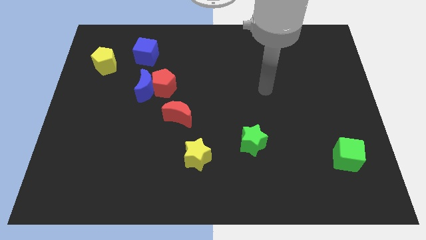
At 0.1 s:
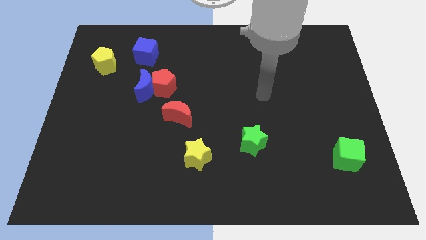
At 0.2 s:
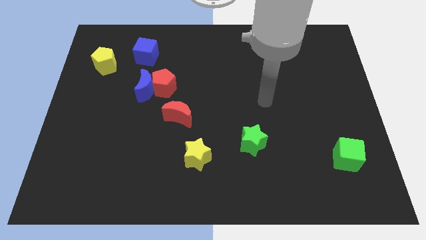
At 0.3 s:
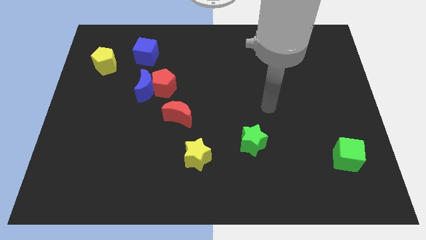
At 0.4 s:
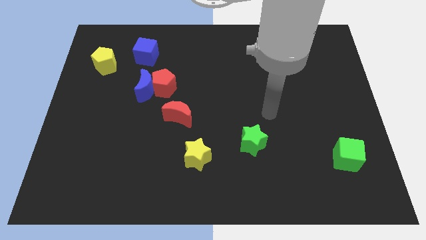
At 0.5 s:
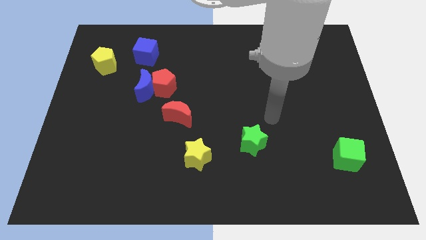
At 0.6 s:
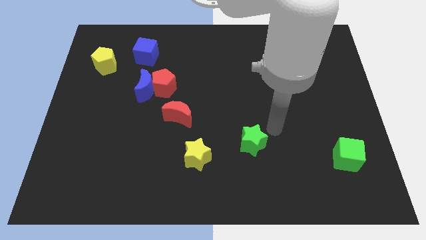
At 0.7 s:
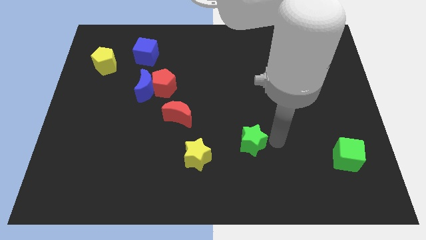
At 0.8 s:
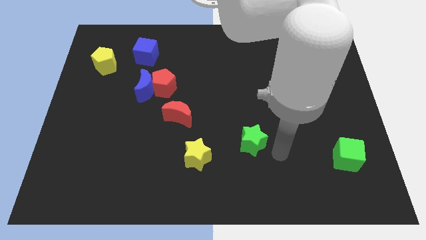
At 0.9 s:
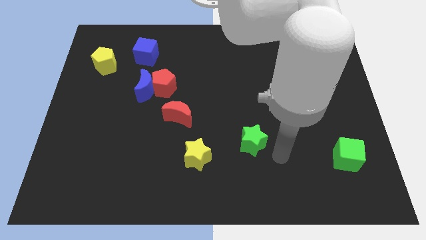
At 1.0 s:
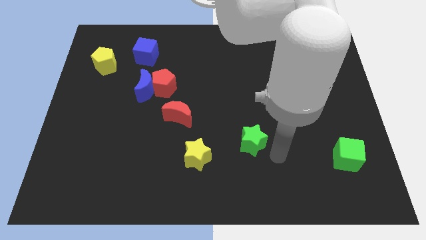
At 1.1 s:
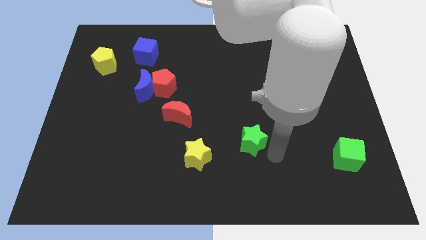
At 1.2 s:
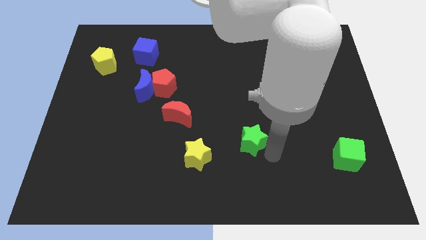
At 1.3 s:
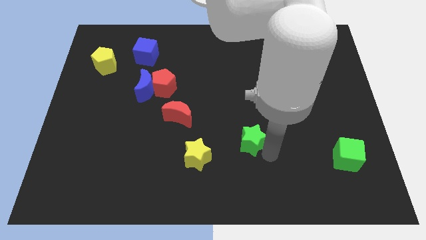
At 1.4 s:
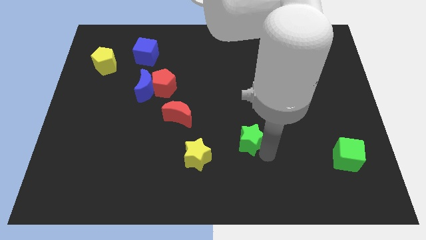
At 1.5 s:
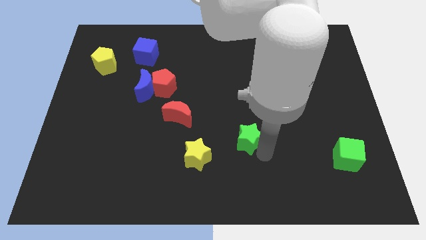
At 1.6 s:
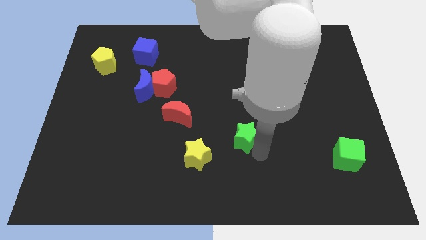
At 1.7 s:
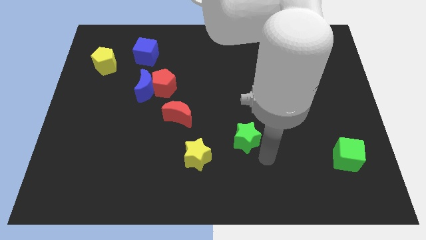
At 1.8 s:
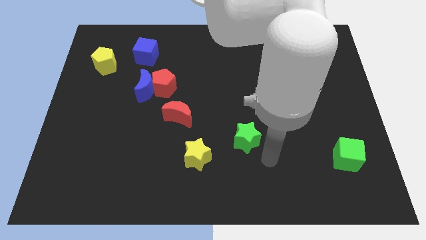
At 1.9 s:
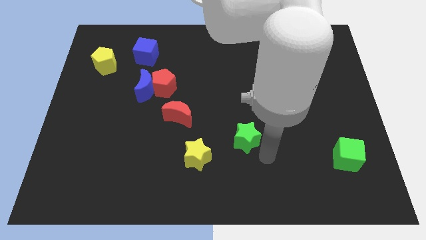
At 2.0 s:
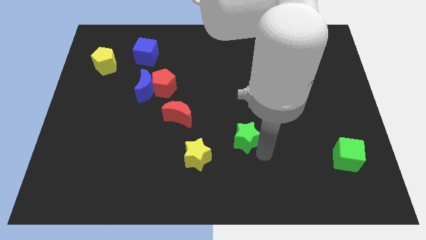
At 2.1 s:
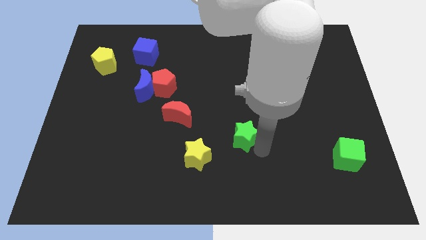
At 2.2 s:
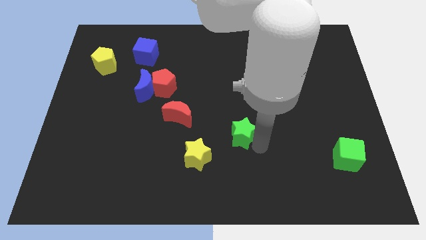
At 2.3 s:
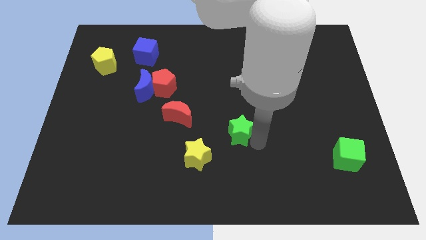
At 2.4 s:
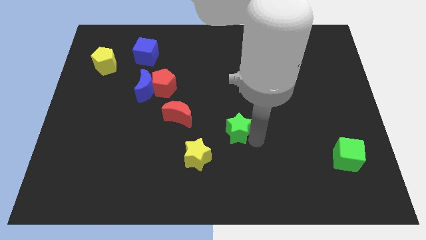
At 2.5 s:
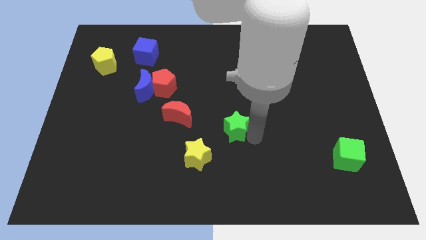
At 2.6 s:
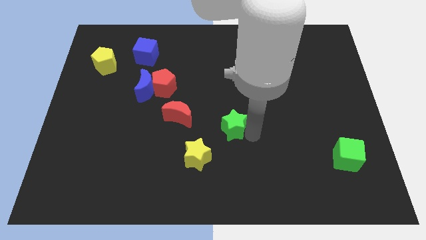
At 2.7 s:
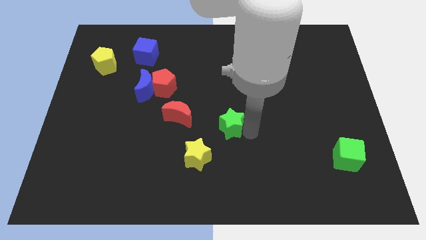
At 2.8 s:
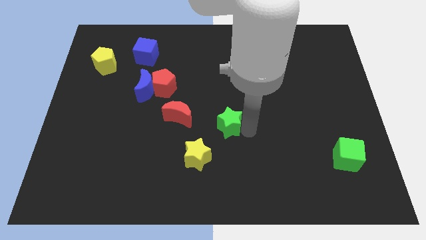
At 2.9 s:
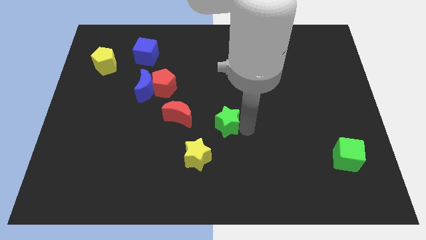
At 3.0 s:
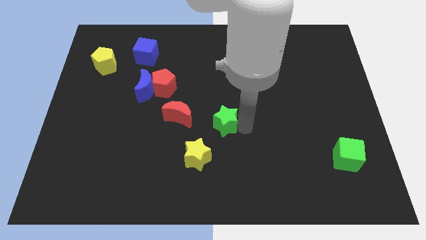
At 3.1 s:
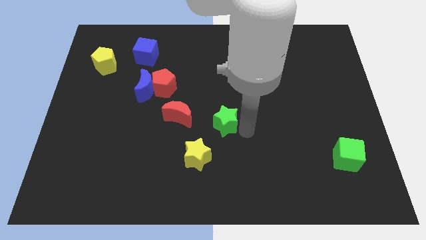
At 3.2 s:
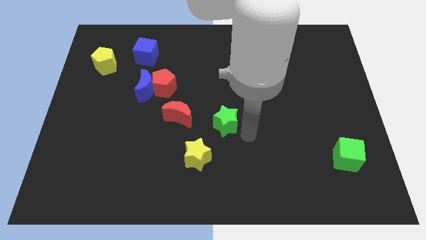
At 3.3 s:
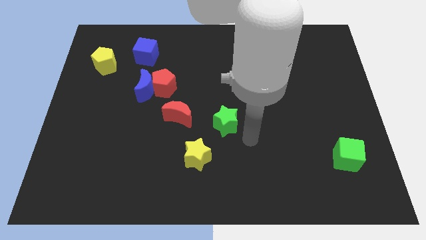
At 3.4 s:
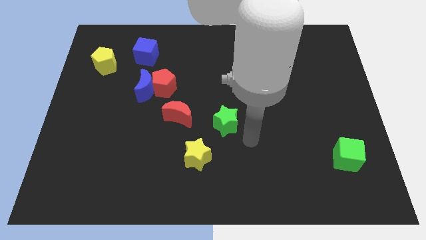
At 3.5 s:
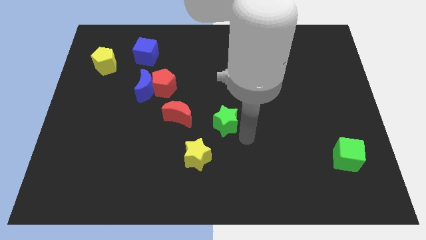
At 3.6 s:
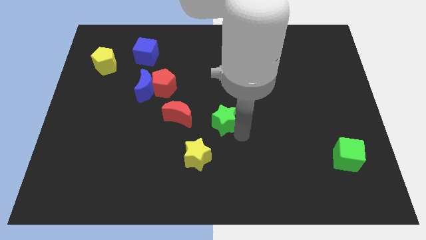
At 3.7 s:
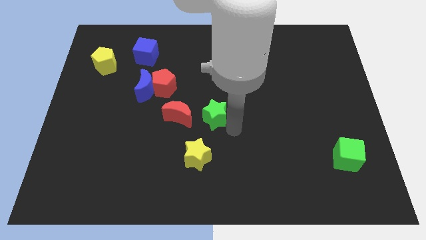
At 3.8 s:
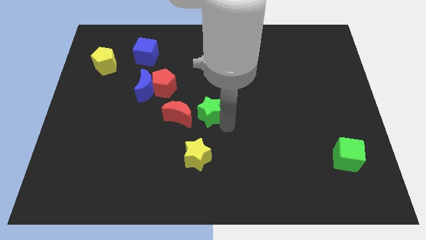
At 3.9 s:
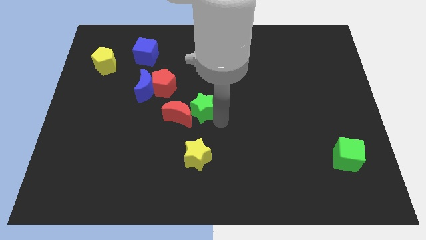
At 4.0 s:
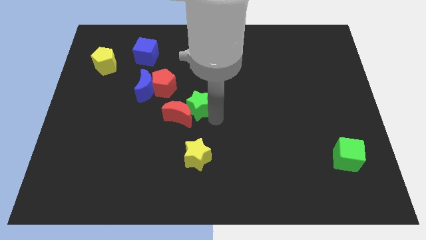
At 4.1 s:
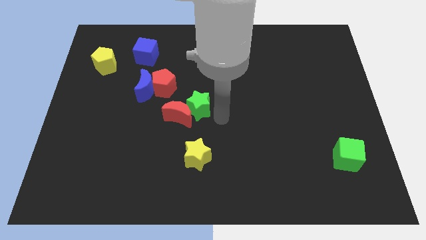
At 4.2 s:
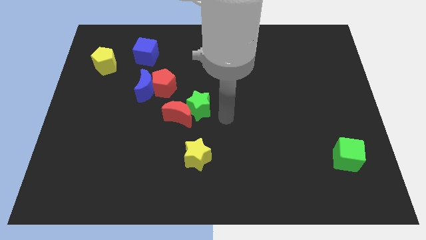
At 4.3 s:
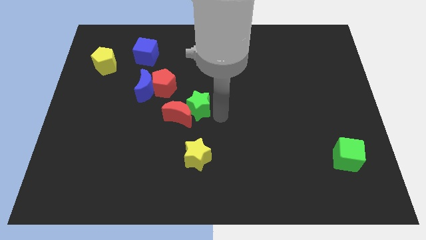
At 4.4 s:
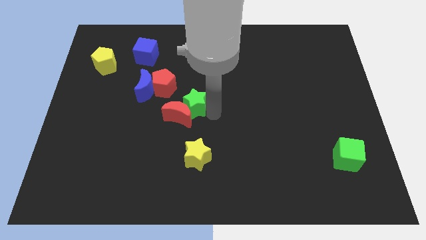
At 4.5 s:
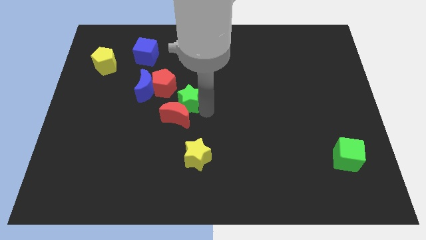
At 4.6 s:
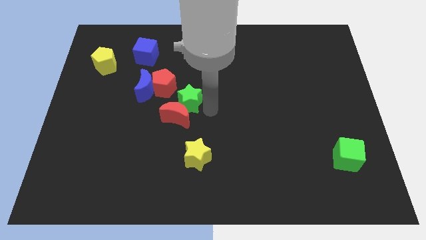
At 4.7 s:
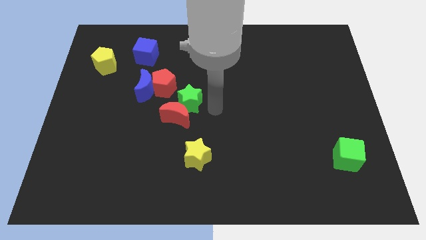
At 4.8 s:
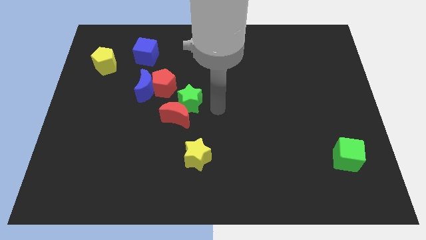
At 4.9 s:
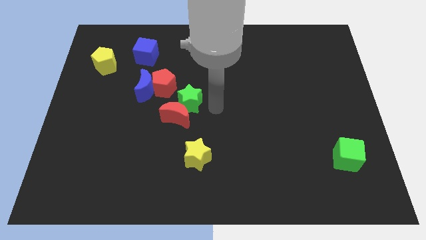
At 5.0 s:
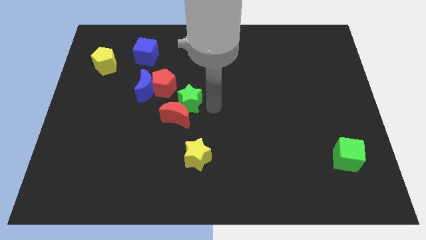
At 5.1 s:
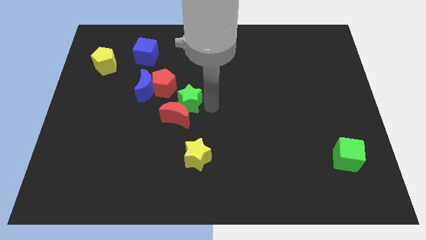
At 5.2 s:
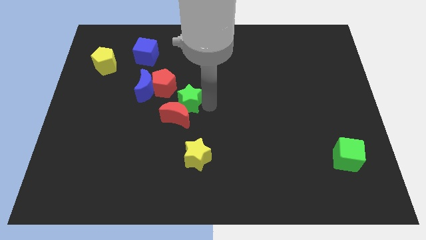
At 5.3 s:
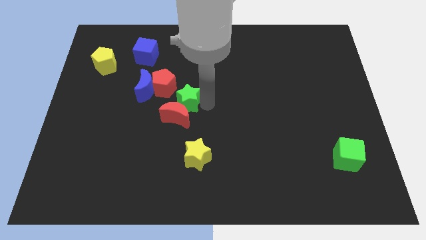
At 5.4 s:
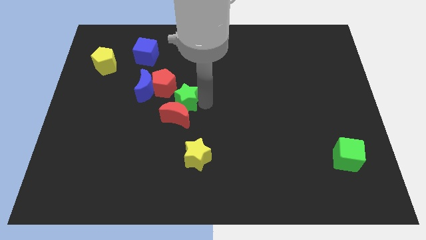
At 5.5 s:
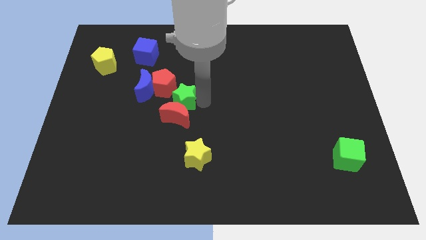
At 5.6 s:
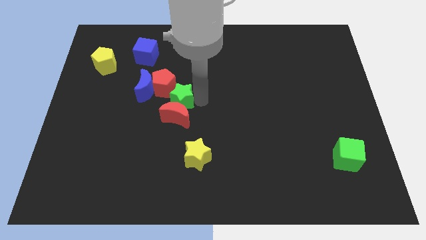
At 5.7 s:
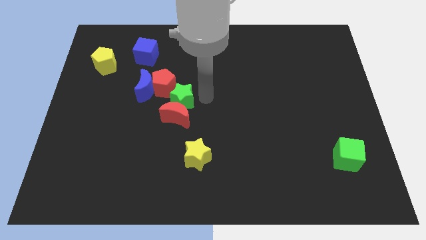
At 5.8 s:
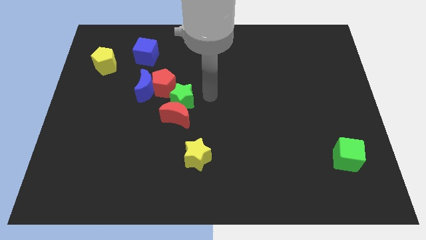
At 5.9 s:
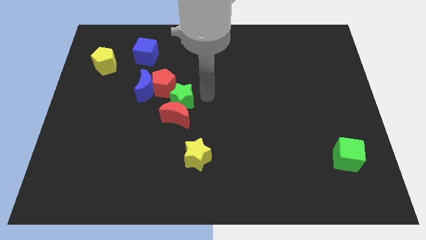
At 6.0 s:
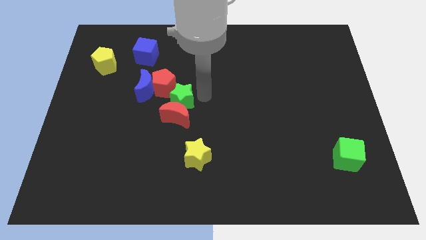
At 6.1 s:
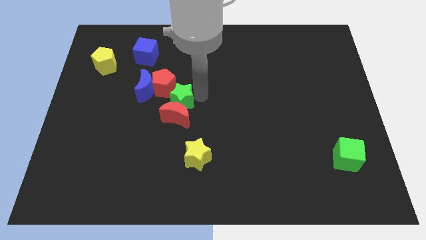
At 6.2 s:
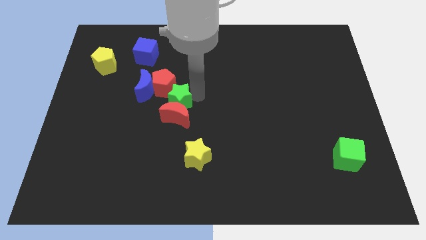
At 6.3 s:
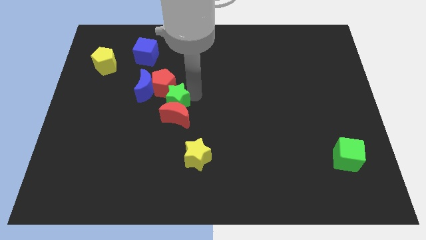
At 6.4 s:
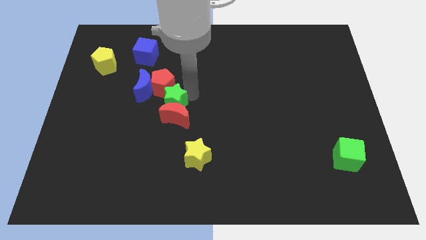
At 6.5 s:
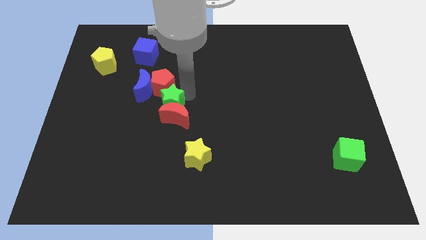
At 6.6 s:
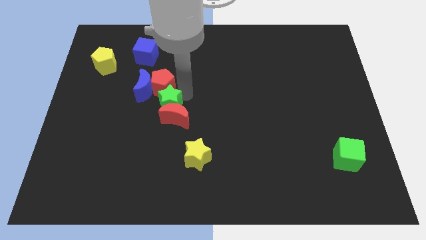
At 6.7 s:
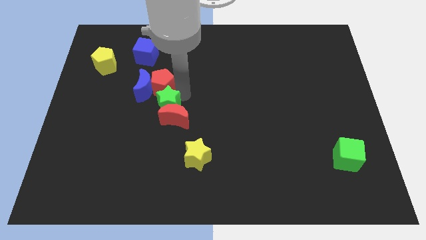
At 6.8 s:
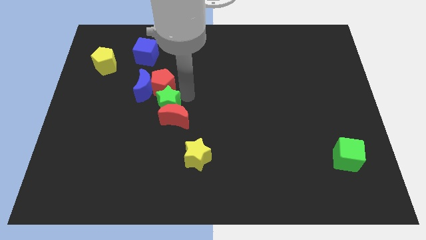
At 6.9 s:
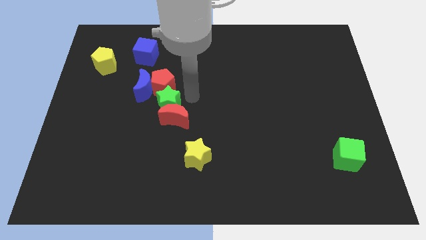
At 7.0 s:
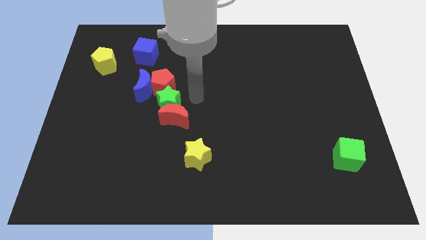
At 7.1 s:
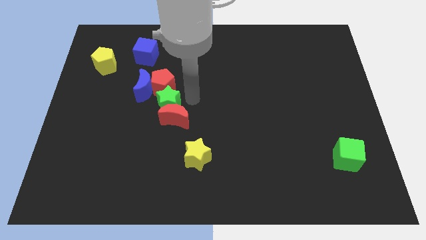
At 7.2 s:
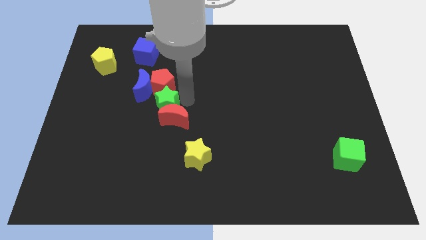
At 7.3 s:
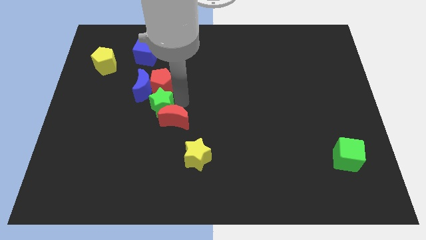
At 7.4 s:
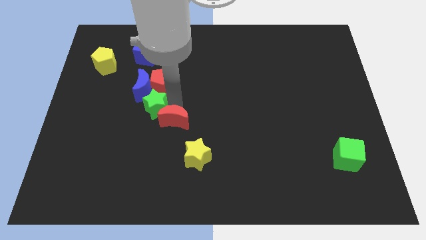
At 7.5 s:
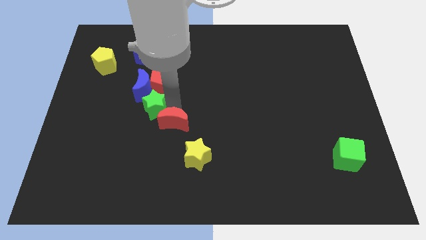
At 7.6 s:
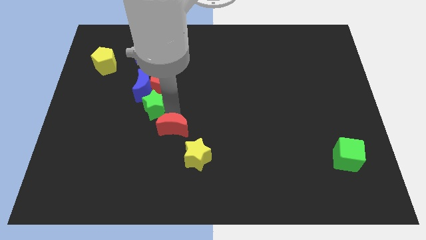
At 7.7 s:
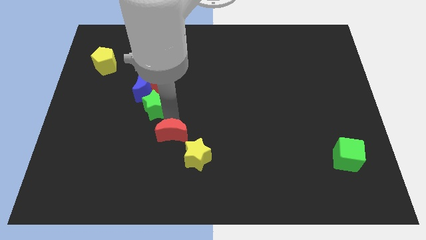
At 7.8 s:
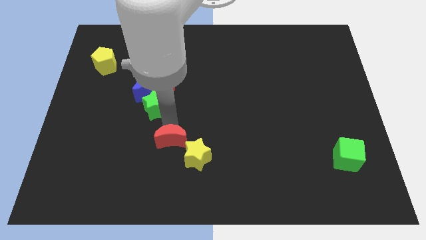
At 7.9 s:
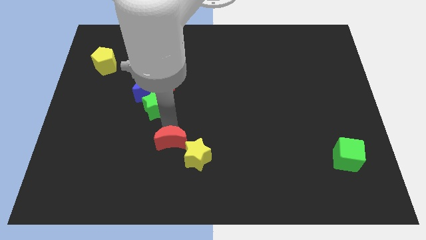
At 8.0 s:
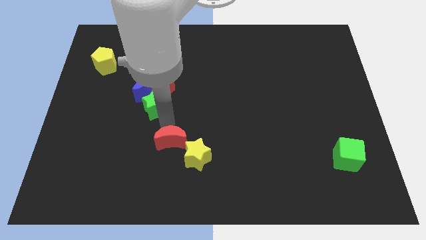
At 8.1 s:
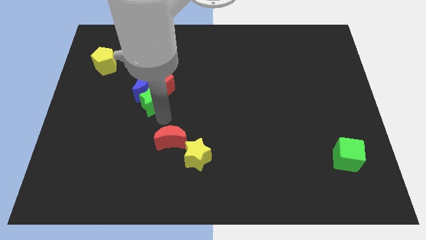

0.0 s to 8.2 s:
put the green star to the blue moon
